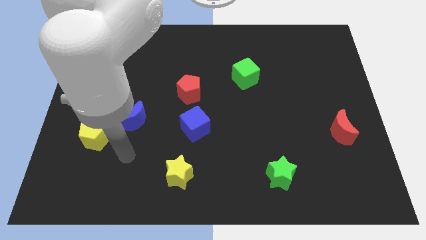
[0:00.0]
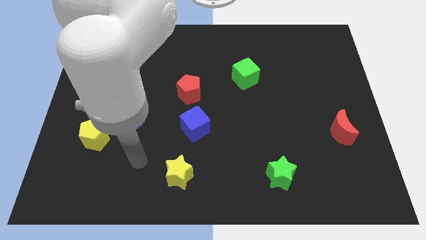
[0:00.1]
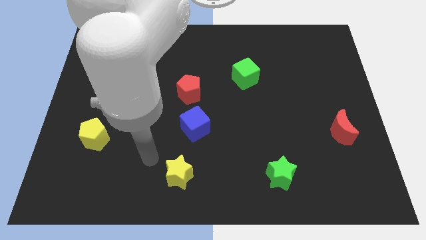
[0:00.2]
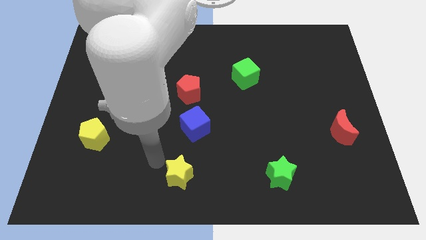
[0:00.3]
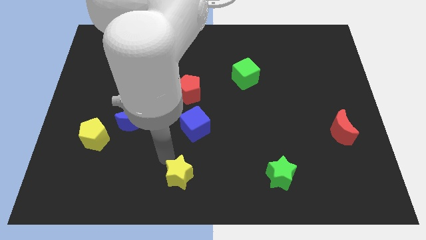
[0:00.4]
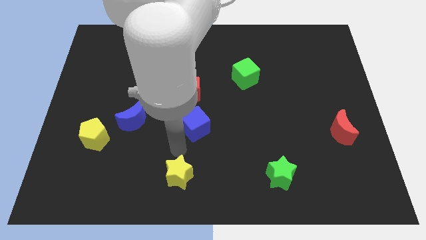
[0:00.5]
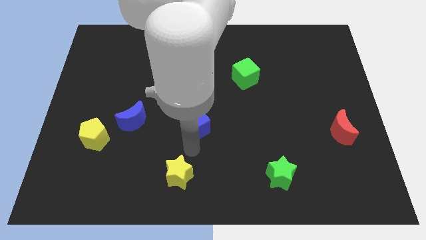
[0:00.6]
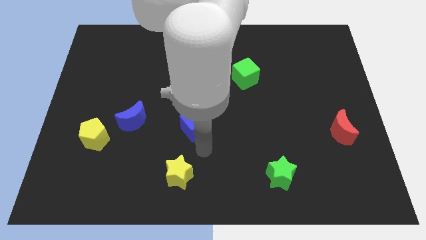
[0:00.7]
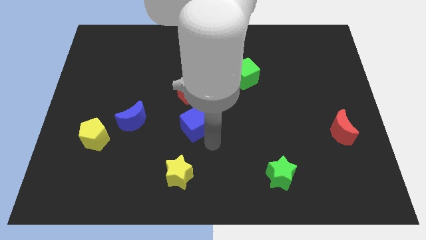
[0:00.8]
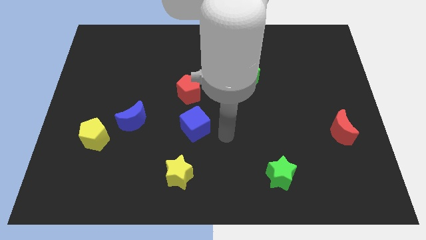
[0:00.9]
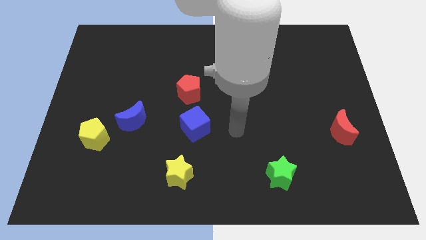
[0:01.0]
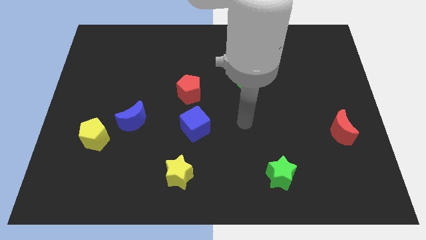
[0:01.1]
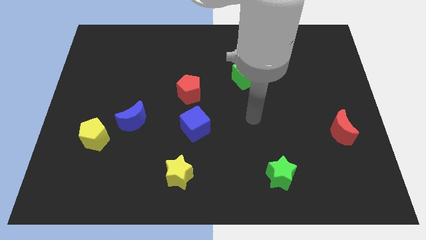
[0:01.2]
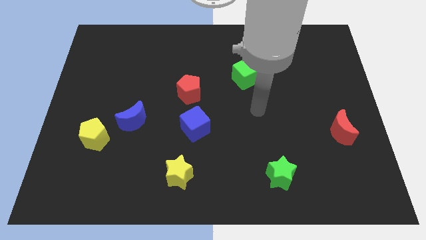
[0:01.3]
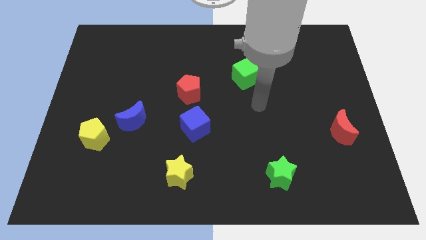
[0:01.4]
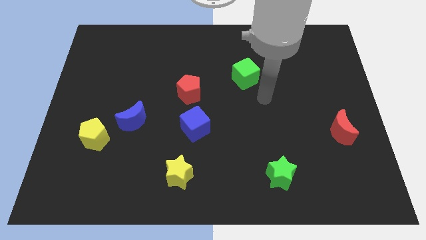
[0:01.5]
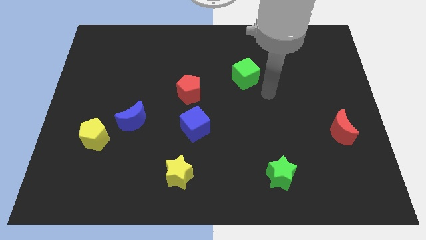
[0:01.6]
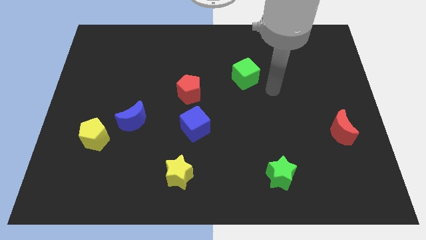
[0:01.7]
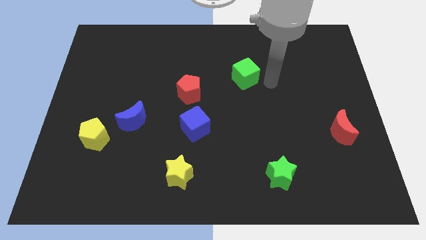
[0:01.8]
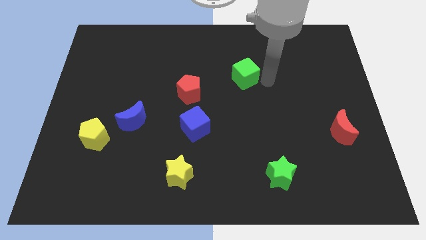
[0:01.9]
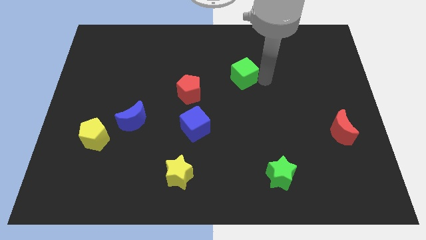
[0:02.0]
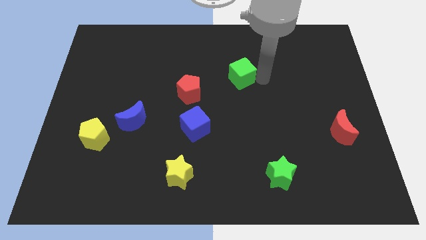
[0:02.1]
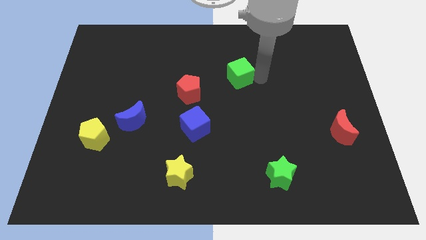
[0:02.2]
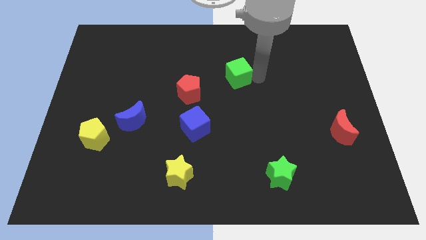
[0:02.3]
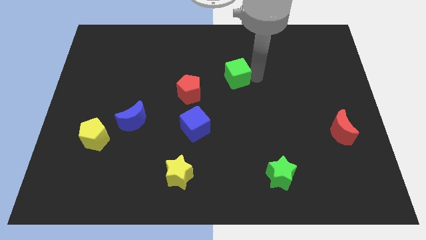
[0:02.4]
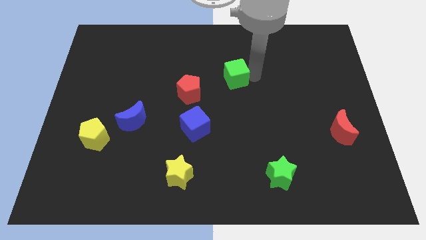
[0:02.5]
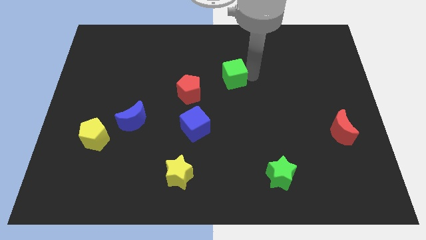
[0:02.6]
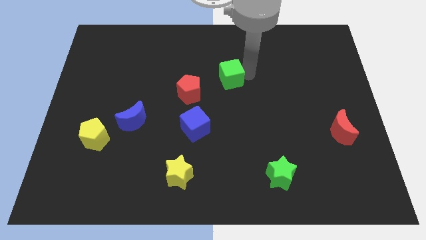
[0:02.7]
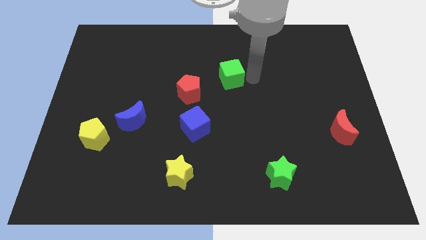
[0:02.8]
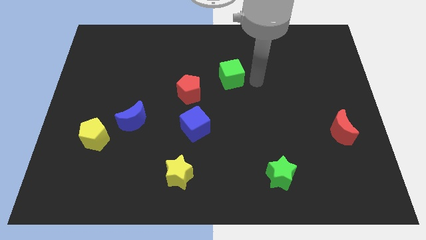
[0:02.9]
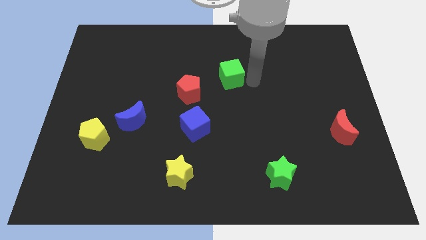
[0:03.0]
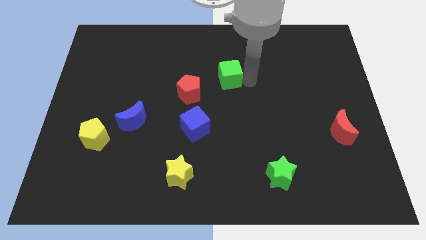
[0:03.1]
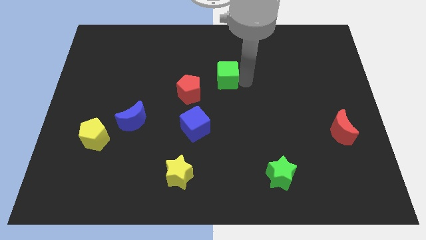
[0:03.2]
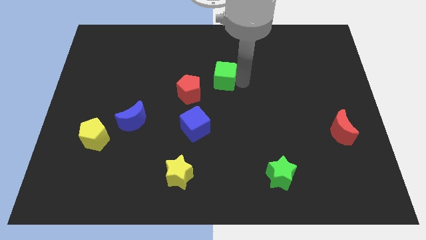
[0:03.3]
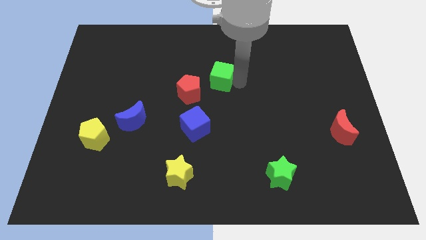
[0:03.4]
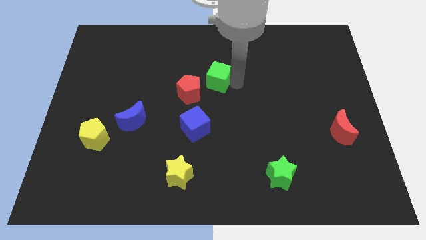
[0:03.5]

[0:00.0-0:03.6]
slightly push the green cube left

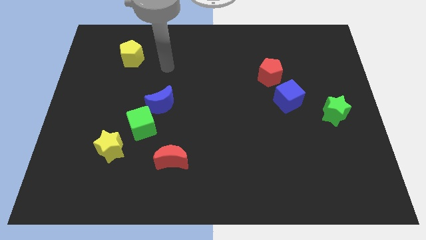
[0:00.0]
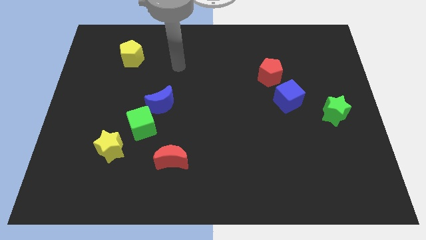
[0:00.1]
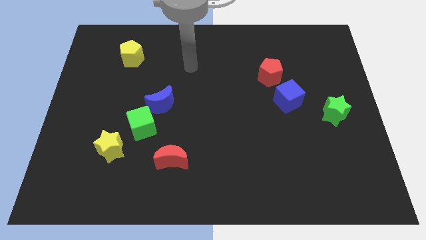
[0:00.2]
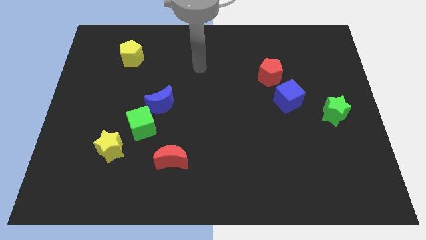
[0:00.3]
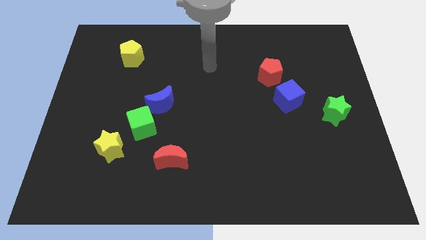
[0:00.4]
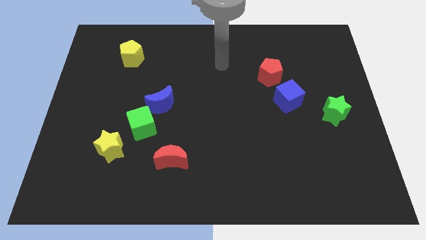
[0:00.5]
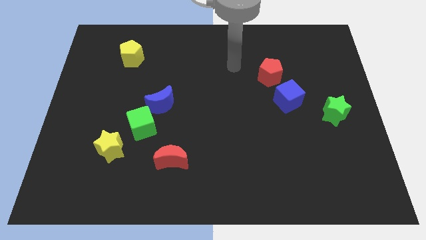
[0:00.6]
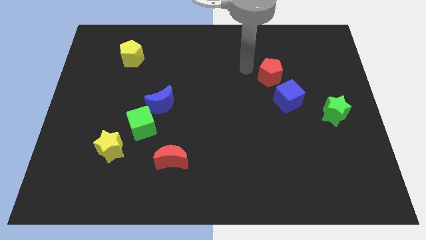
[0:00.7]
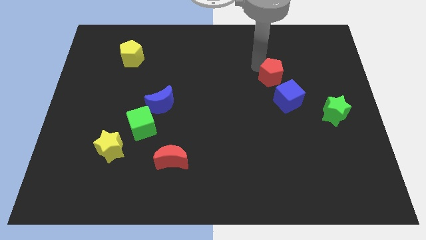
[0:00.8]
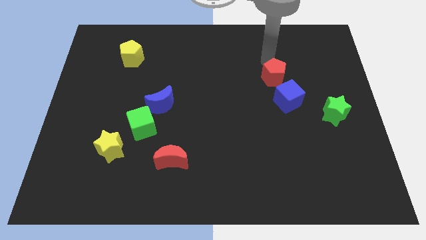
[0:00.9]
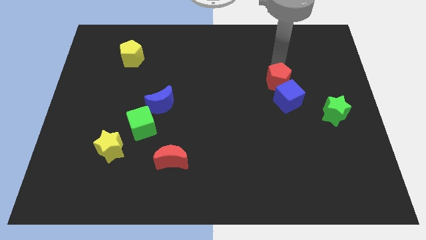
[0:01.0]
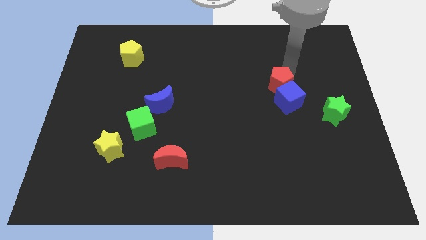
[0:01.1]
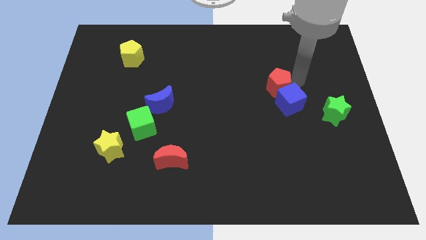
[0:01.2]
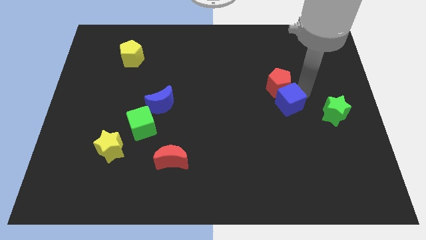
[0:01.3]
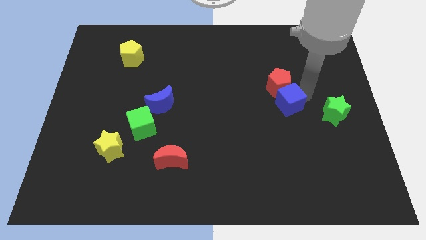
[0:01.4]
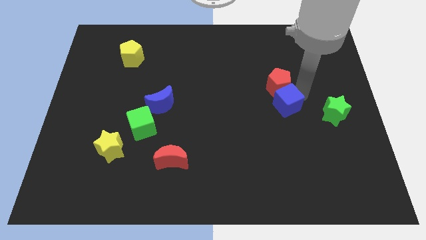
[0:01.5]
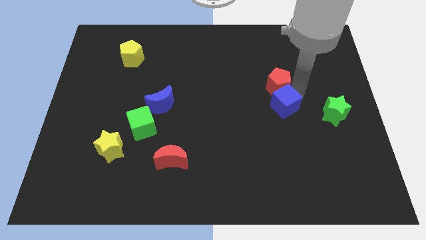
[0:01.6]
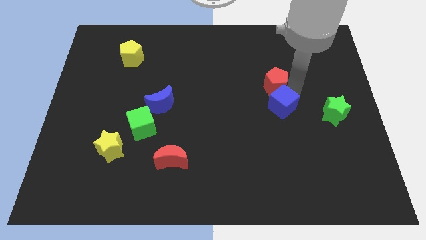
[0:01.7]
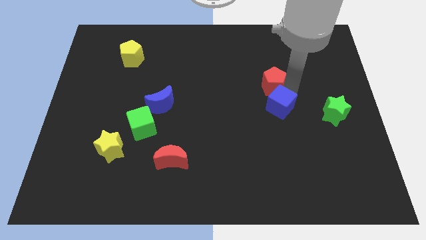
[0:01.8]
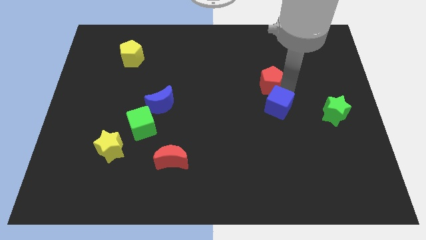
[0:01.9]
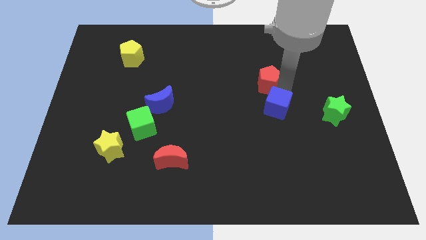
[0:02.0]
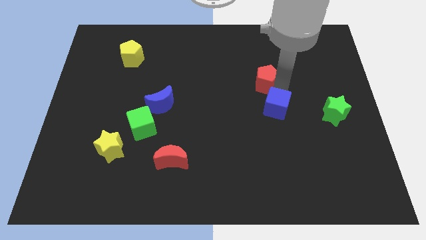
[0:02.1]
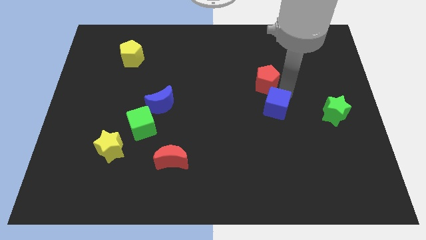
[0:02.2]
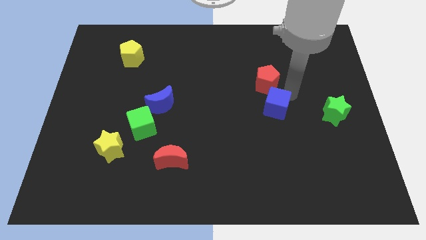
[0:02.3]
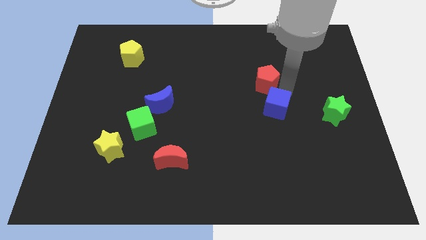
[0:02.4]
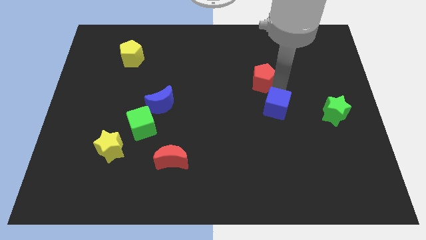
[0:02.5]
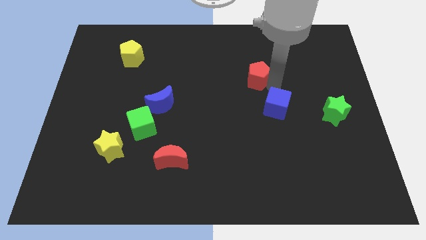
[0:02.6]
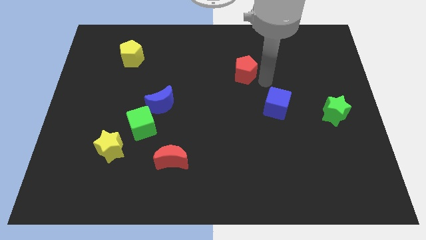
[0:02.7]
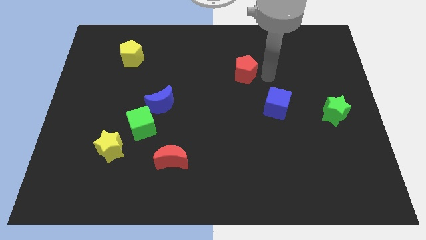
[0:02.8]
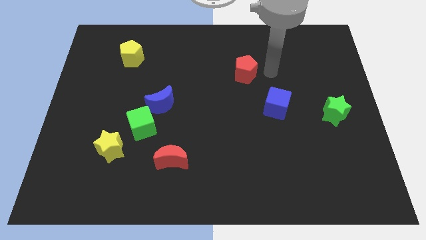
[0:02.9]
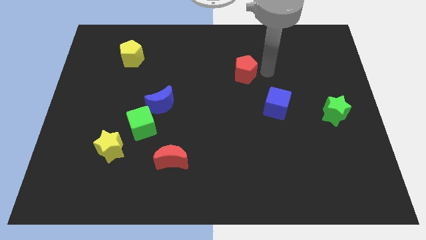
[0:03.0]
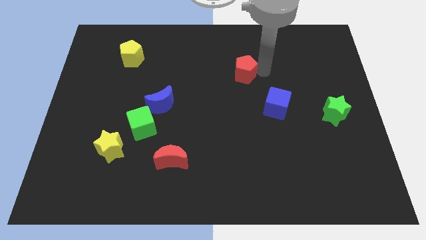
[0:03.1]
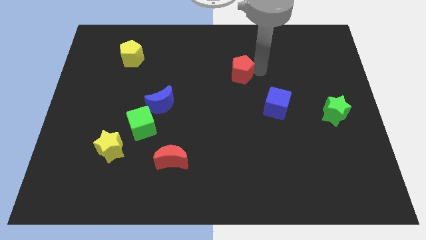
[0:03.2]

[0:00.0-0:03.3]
slide the red pentagon to the left a bit

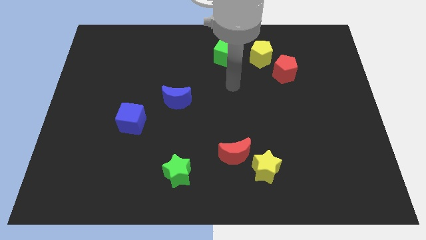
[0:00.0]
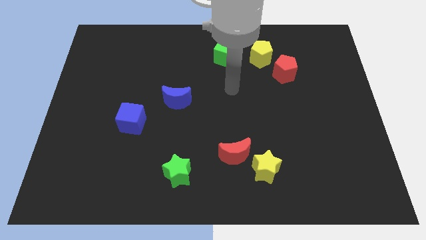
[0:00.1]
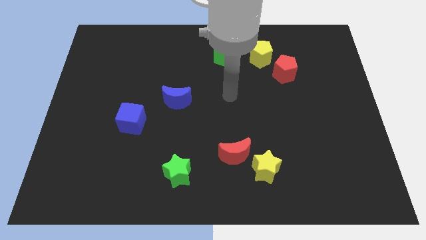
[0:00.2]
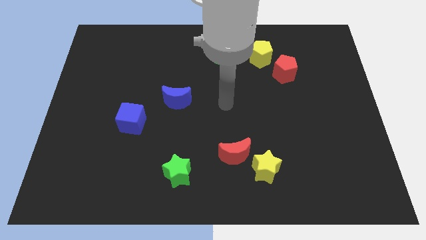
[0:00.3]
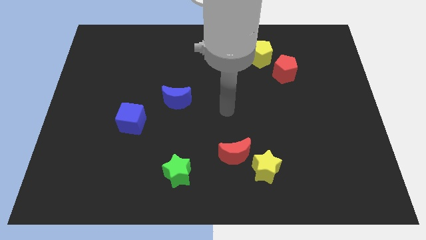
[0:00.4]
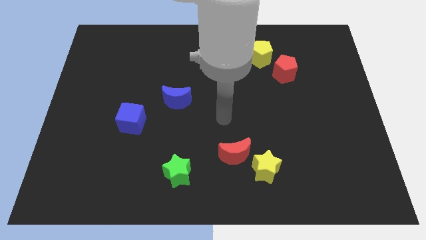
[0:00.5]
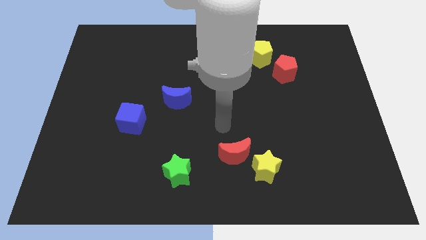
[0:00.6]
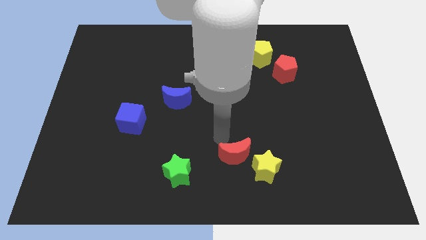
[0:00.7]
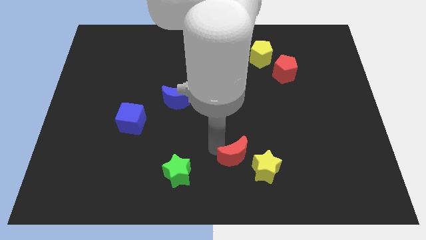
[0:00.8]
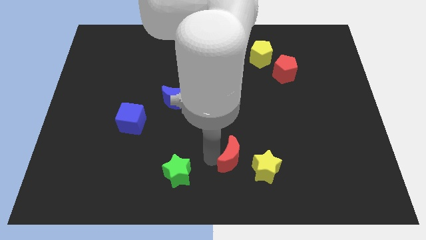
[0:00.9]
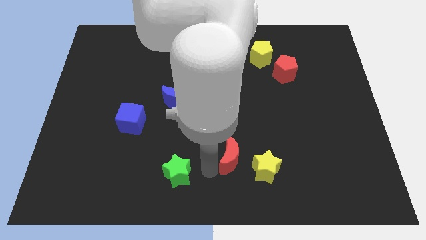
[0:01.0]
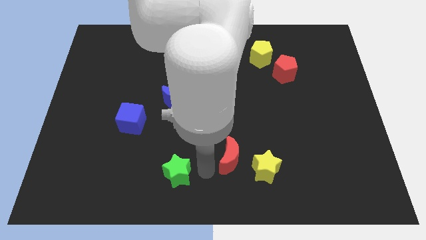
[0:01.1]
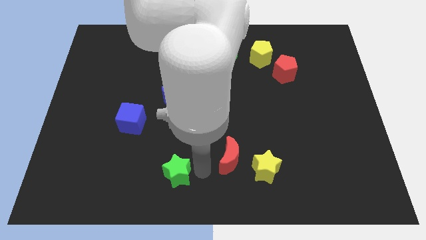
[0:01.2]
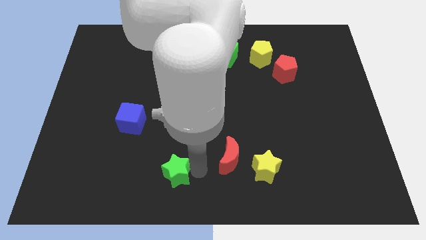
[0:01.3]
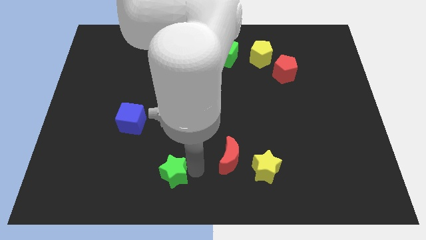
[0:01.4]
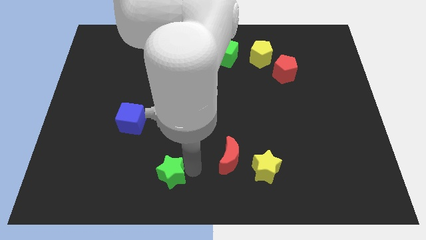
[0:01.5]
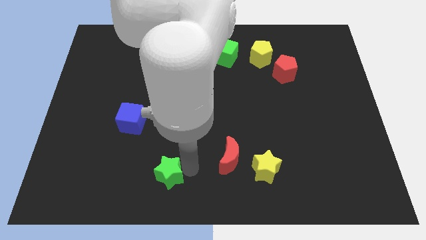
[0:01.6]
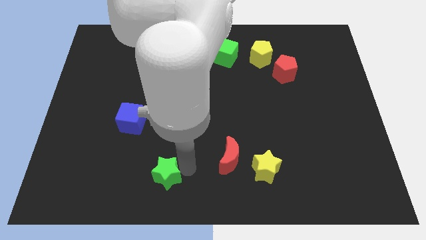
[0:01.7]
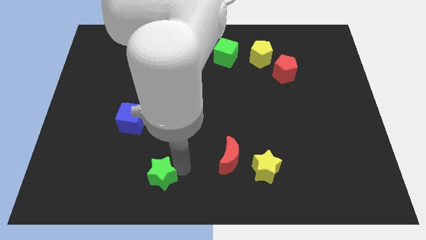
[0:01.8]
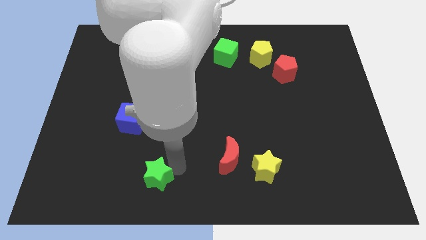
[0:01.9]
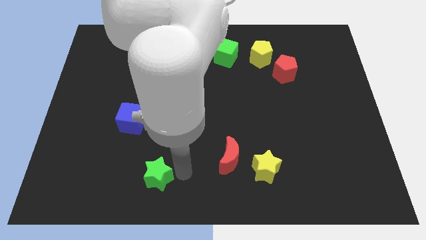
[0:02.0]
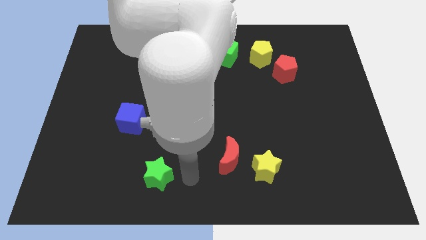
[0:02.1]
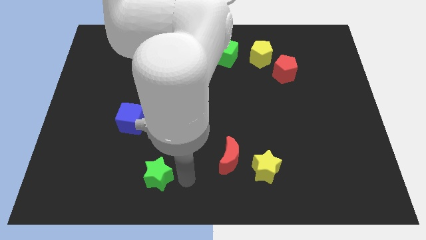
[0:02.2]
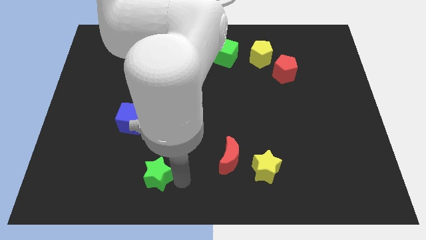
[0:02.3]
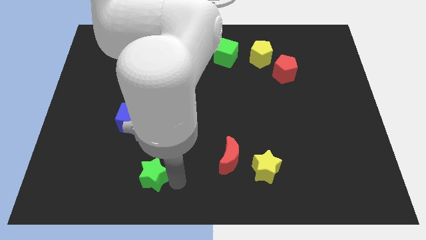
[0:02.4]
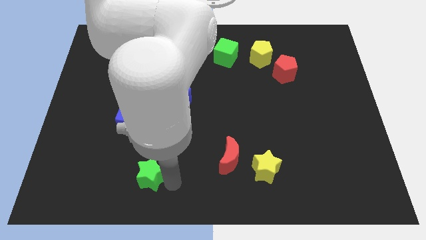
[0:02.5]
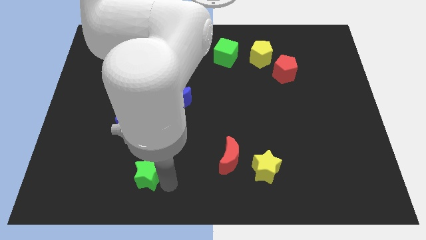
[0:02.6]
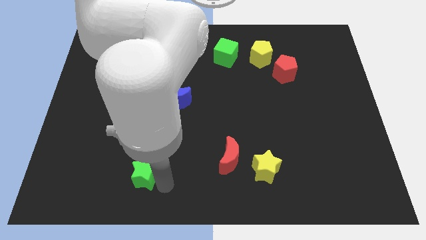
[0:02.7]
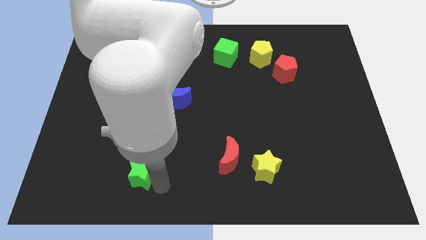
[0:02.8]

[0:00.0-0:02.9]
slightly push the green star to the left
